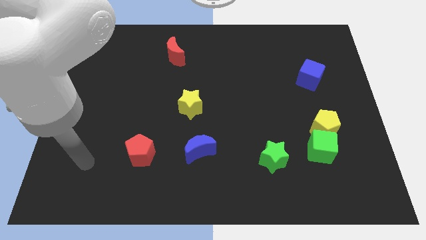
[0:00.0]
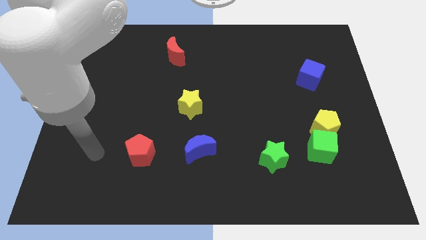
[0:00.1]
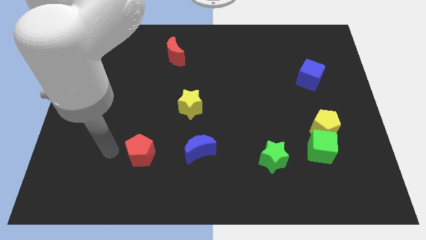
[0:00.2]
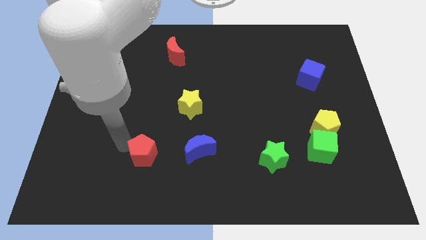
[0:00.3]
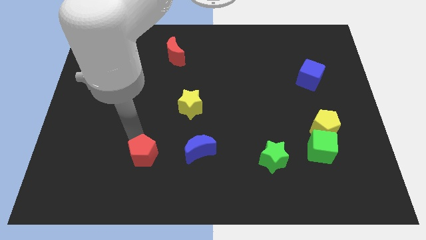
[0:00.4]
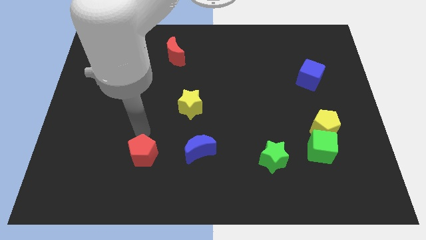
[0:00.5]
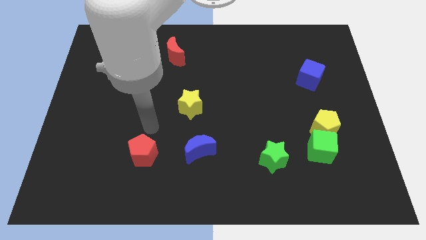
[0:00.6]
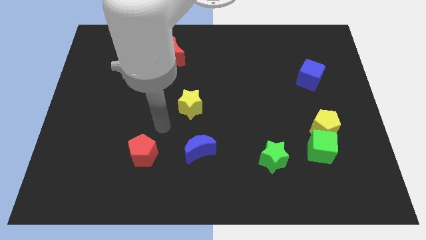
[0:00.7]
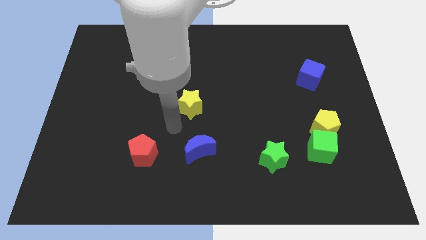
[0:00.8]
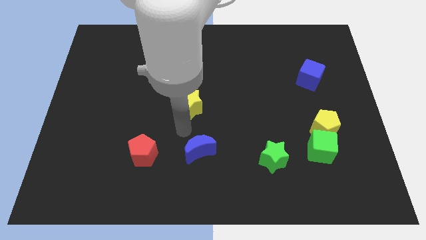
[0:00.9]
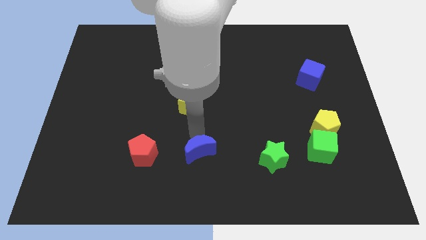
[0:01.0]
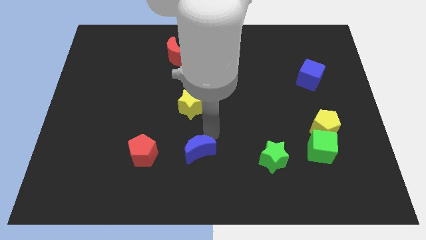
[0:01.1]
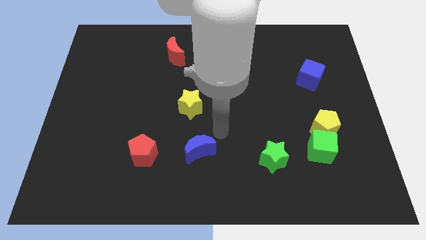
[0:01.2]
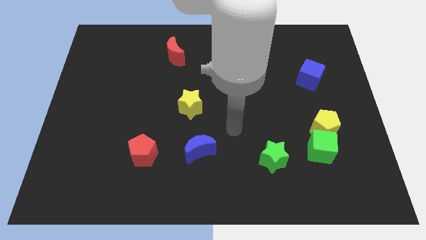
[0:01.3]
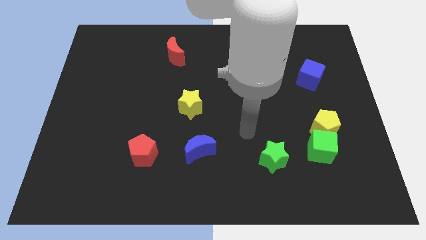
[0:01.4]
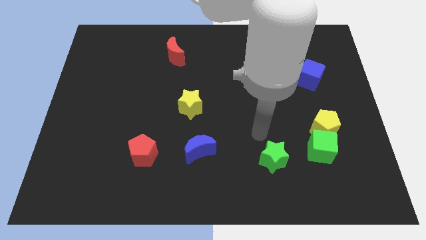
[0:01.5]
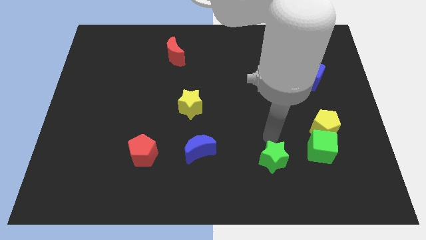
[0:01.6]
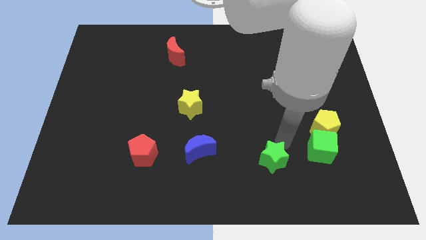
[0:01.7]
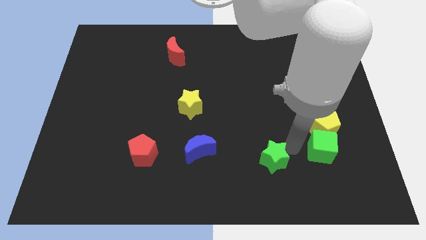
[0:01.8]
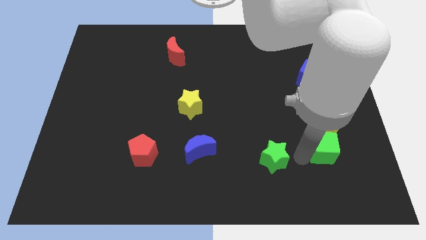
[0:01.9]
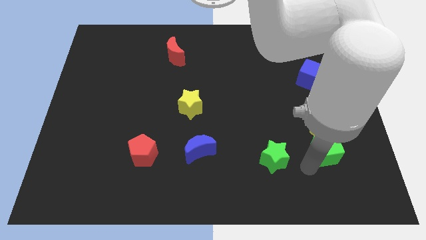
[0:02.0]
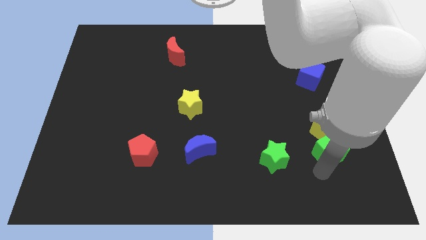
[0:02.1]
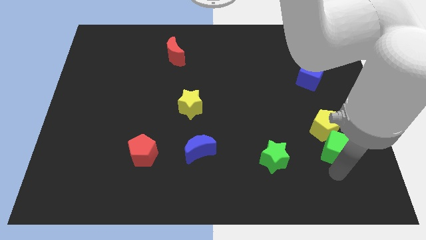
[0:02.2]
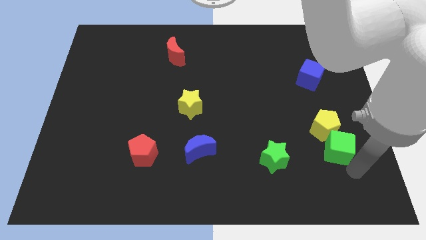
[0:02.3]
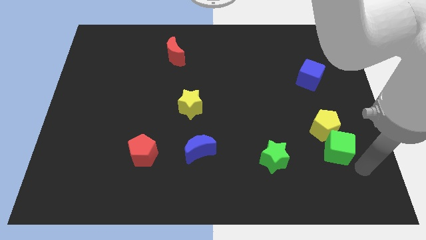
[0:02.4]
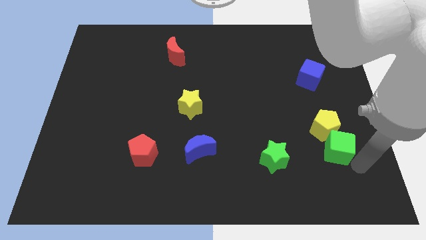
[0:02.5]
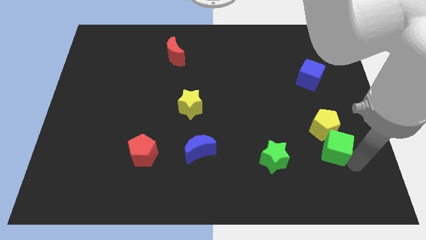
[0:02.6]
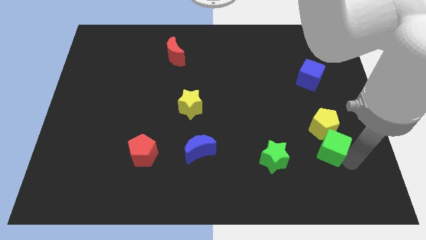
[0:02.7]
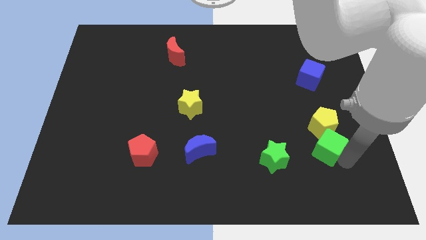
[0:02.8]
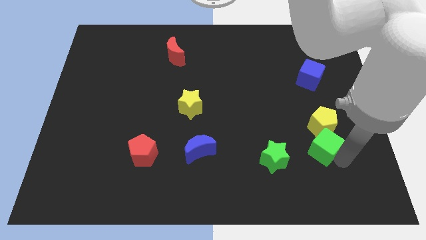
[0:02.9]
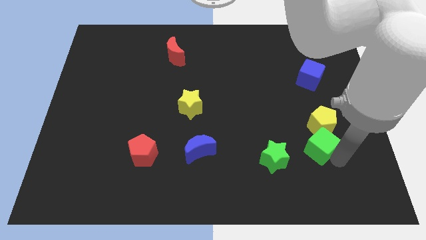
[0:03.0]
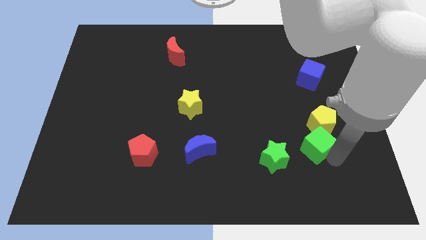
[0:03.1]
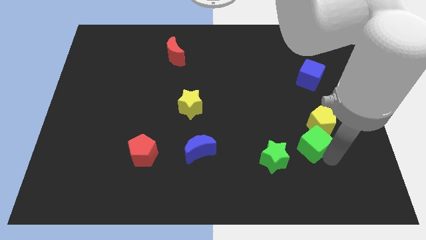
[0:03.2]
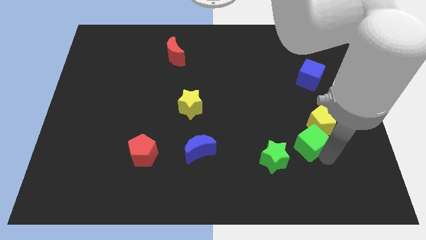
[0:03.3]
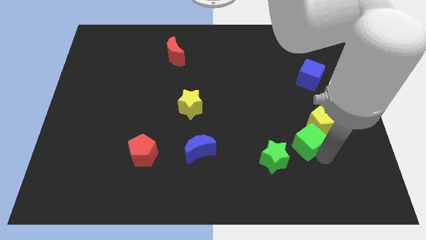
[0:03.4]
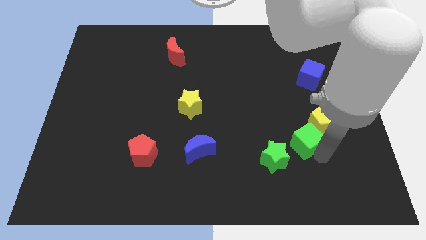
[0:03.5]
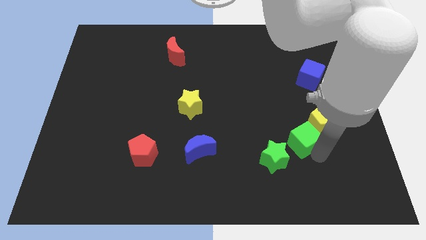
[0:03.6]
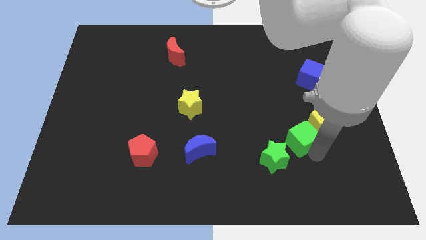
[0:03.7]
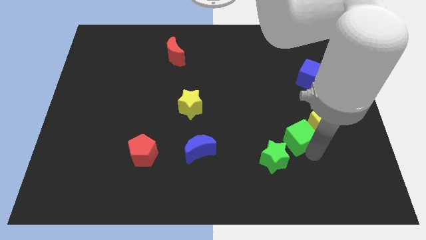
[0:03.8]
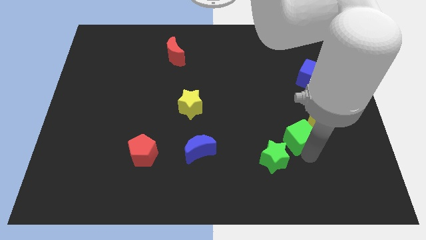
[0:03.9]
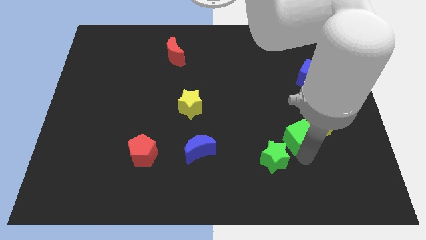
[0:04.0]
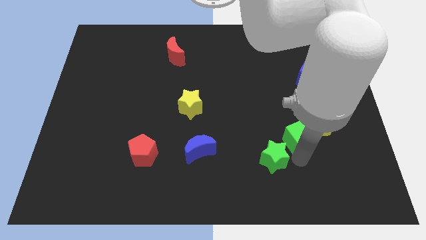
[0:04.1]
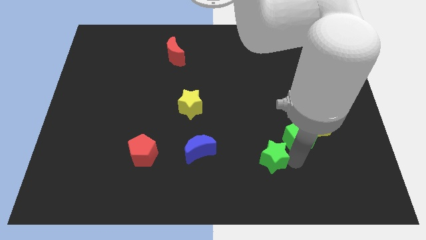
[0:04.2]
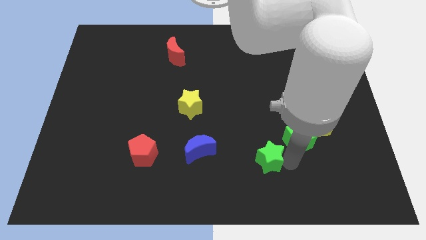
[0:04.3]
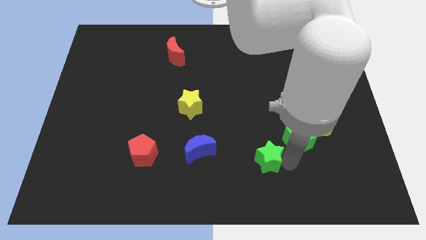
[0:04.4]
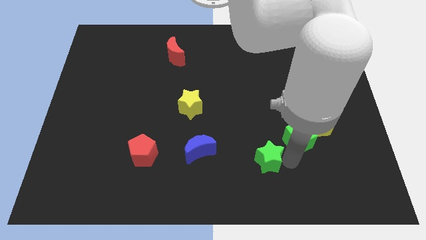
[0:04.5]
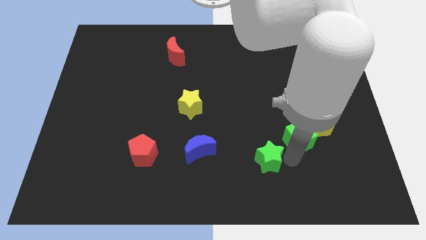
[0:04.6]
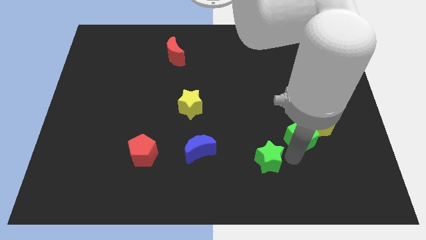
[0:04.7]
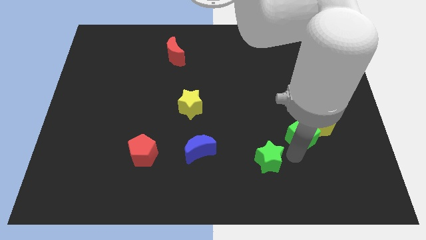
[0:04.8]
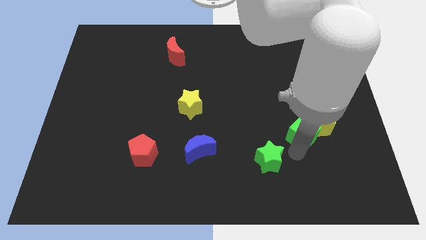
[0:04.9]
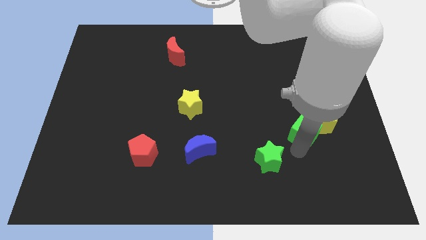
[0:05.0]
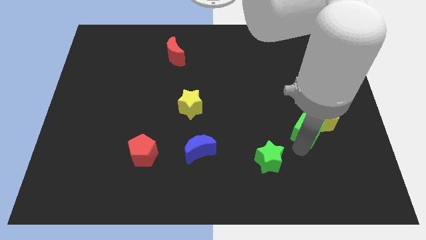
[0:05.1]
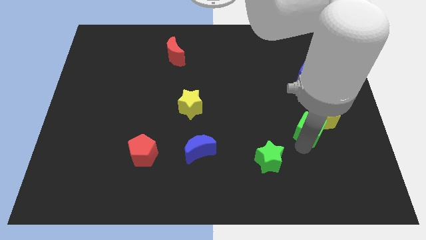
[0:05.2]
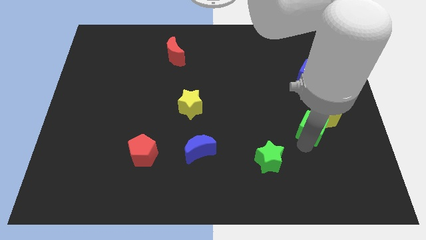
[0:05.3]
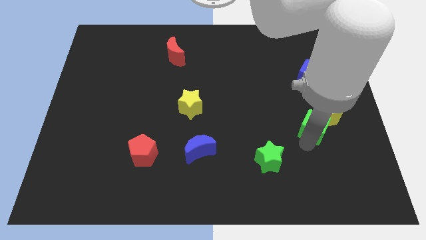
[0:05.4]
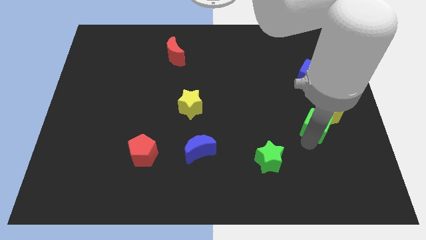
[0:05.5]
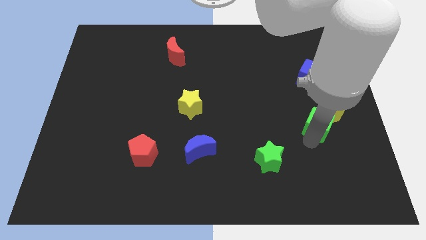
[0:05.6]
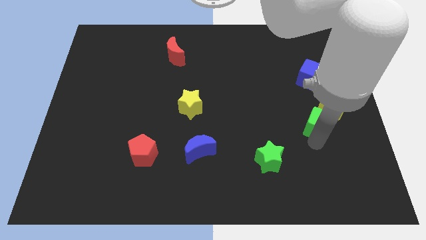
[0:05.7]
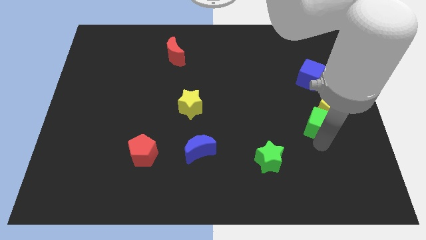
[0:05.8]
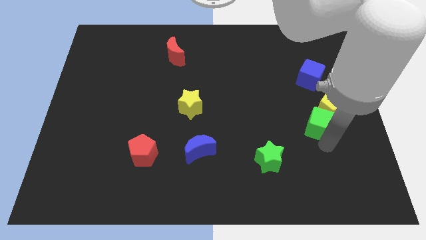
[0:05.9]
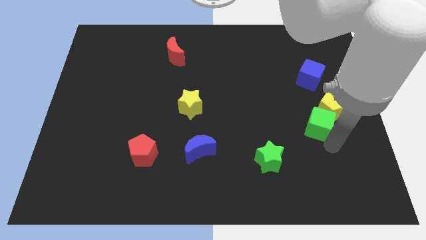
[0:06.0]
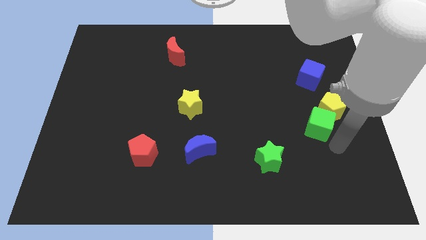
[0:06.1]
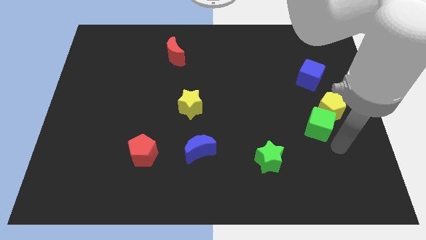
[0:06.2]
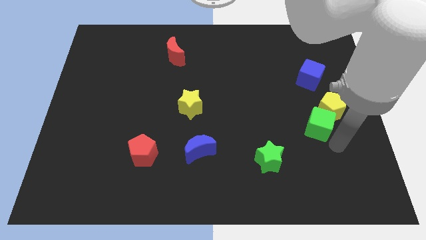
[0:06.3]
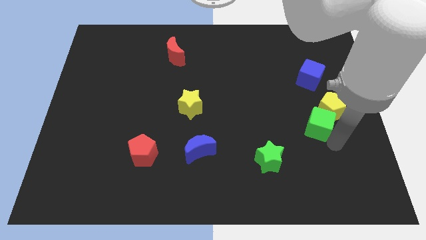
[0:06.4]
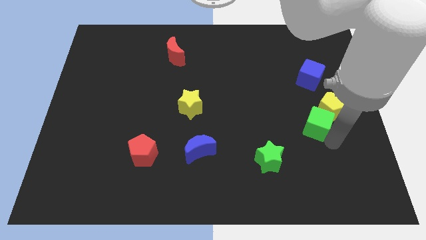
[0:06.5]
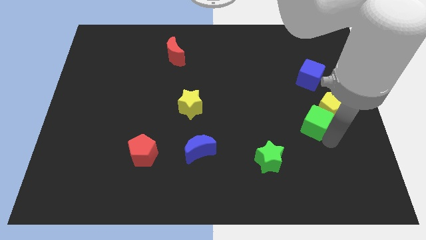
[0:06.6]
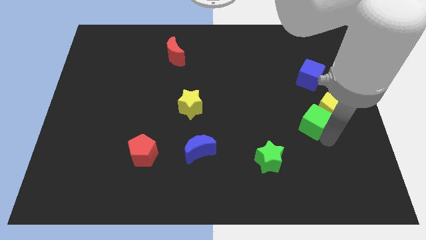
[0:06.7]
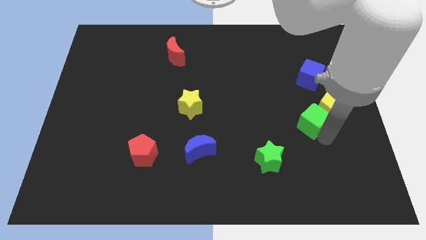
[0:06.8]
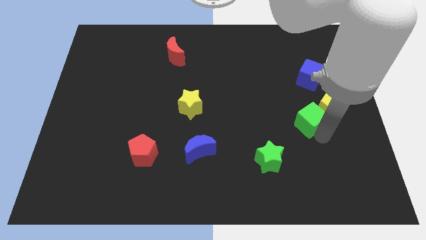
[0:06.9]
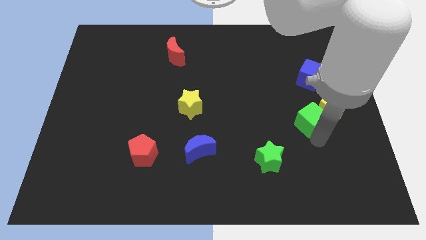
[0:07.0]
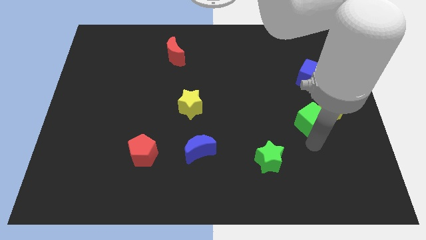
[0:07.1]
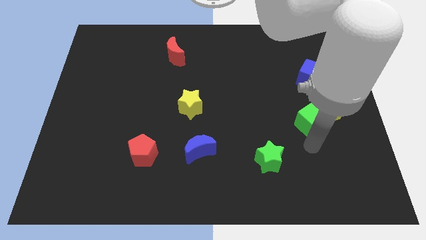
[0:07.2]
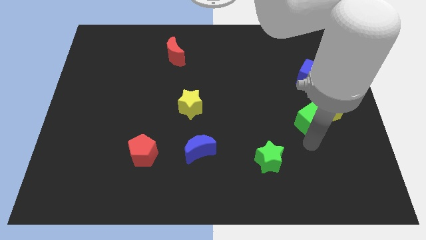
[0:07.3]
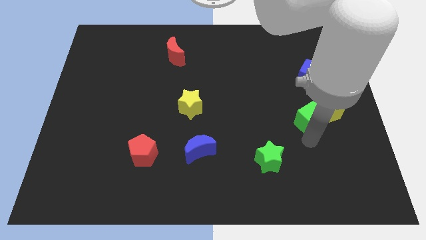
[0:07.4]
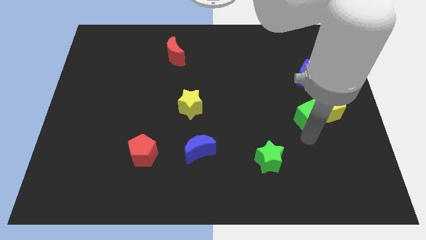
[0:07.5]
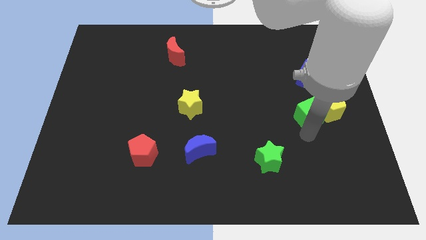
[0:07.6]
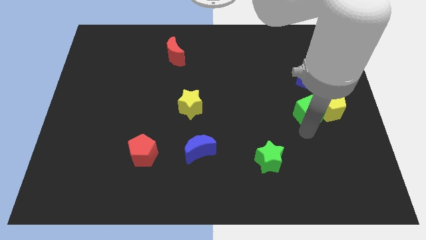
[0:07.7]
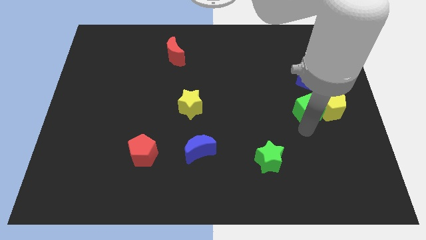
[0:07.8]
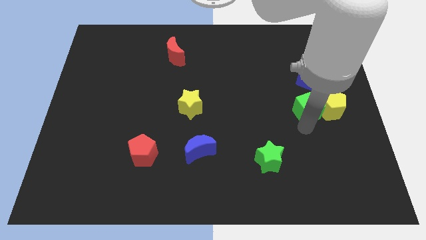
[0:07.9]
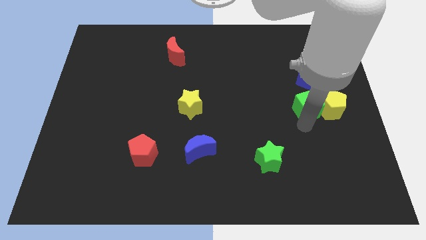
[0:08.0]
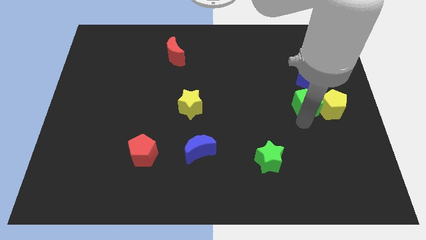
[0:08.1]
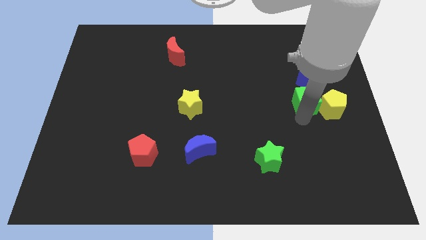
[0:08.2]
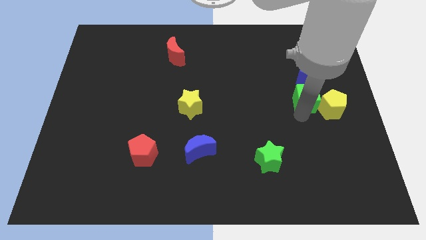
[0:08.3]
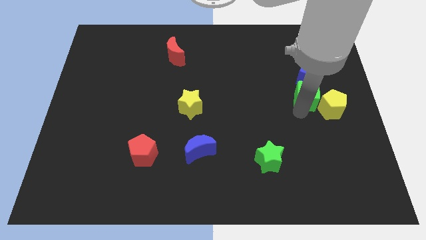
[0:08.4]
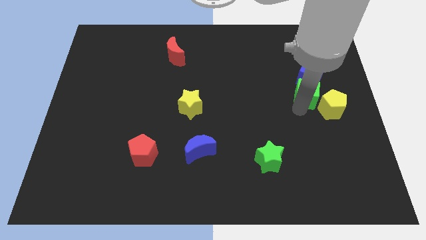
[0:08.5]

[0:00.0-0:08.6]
slide the green cube next to the blue cube
